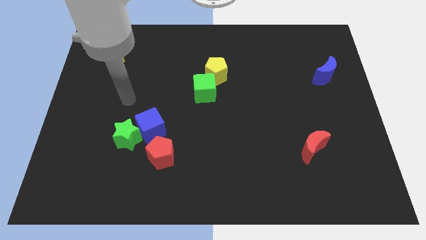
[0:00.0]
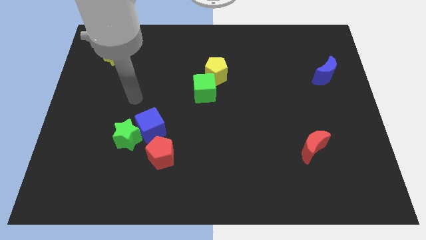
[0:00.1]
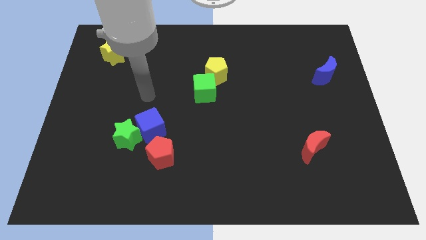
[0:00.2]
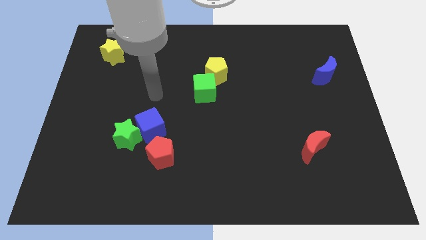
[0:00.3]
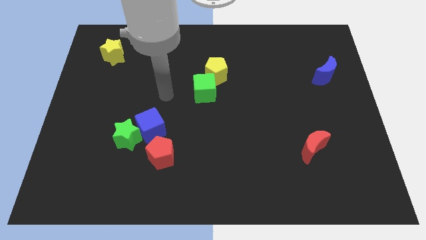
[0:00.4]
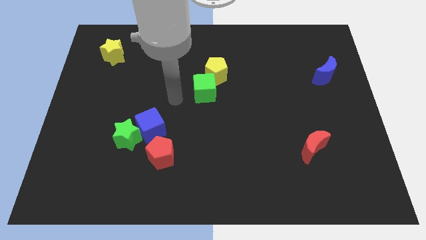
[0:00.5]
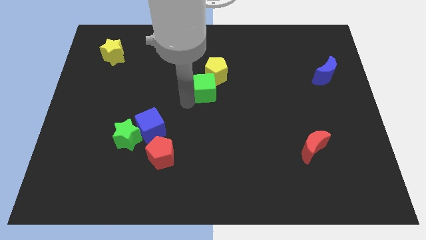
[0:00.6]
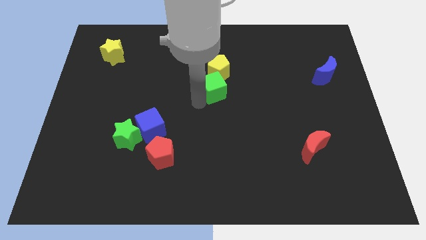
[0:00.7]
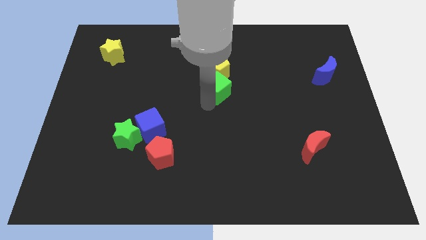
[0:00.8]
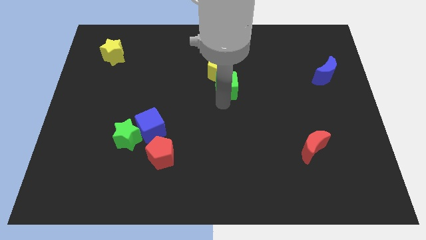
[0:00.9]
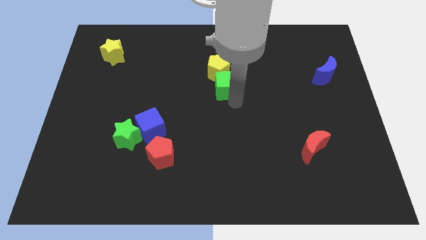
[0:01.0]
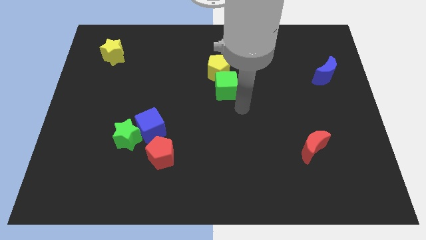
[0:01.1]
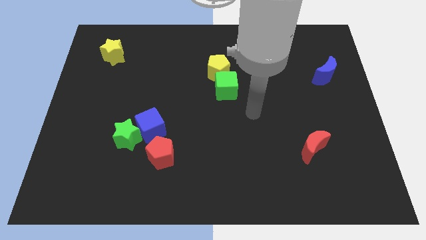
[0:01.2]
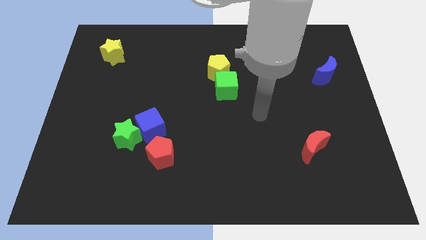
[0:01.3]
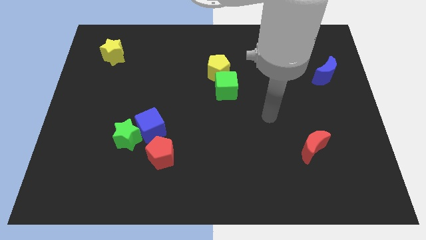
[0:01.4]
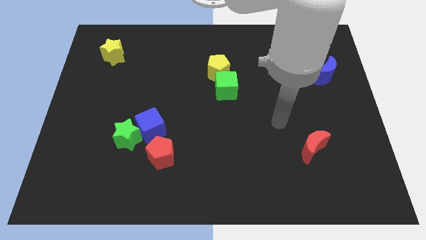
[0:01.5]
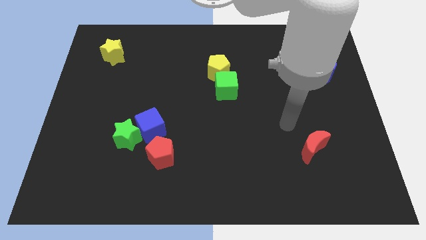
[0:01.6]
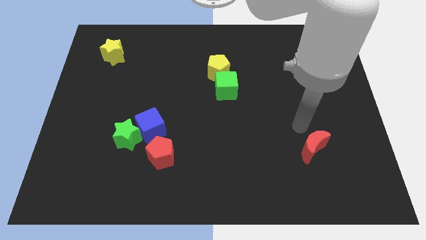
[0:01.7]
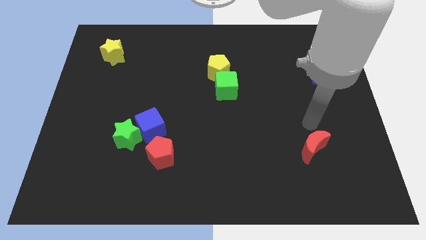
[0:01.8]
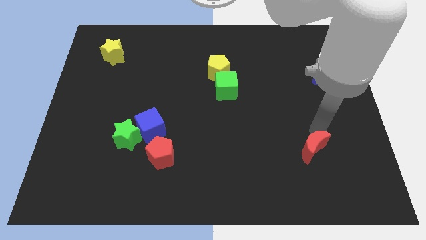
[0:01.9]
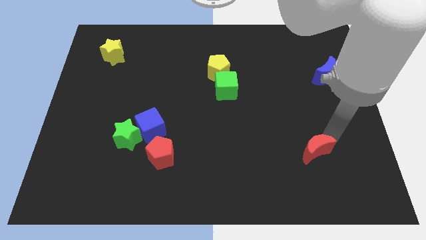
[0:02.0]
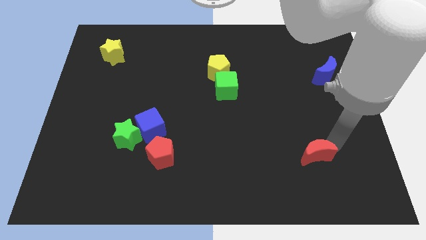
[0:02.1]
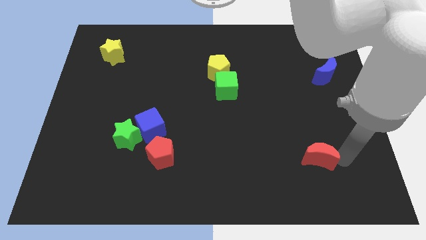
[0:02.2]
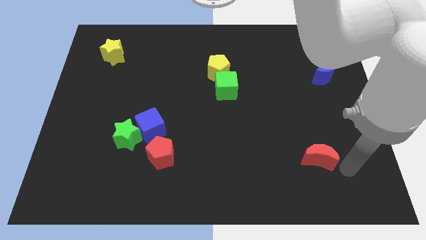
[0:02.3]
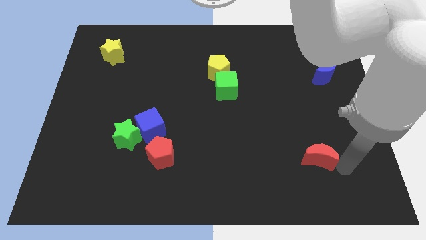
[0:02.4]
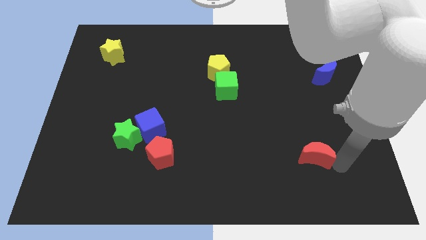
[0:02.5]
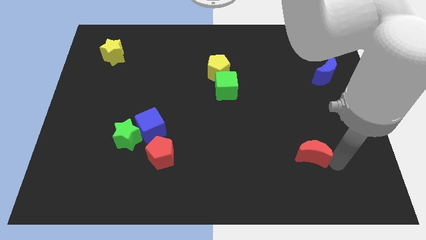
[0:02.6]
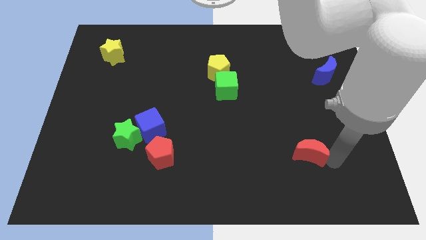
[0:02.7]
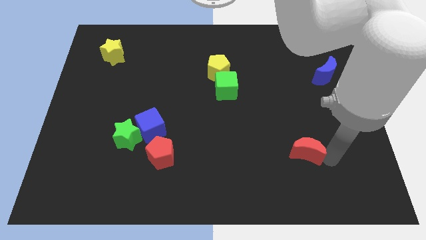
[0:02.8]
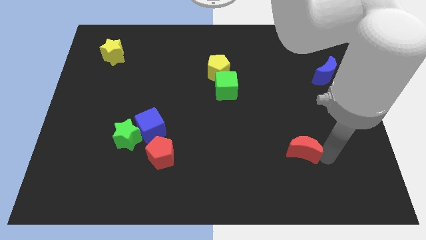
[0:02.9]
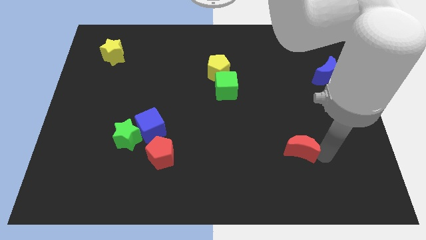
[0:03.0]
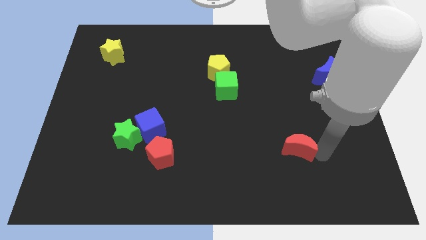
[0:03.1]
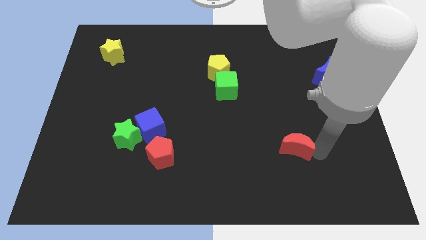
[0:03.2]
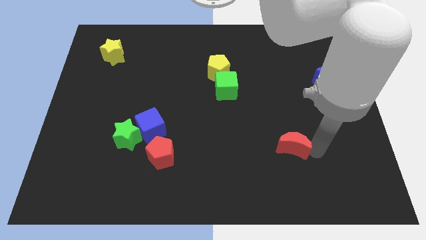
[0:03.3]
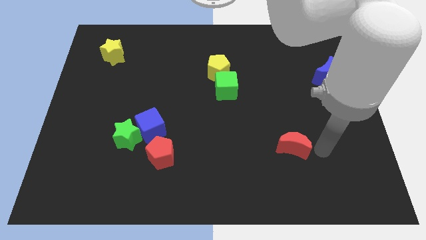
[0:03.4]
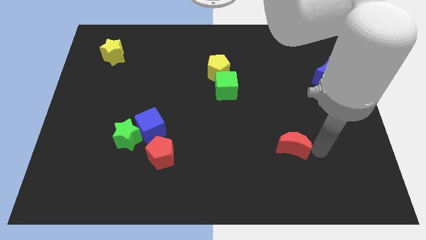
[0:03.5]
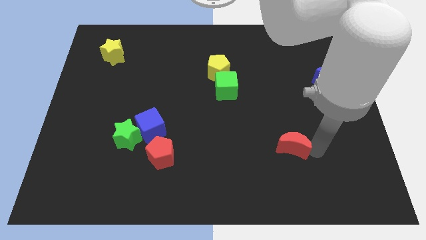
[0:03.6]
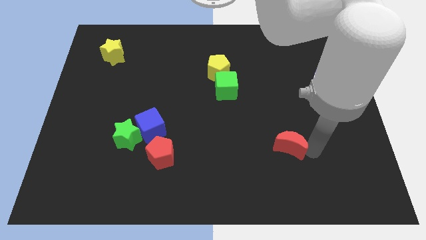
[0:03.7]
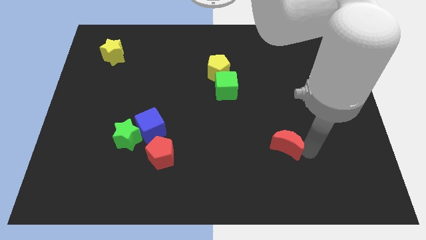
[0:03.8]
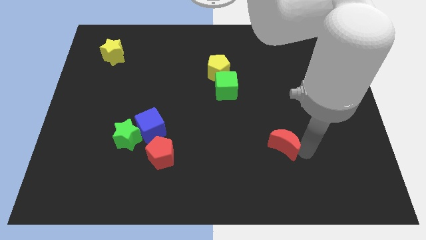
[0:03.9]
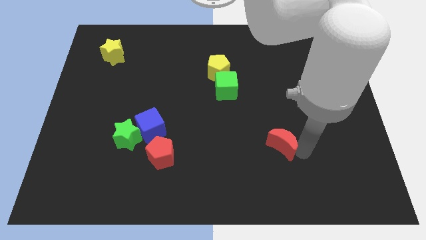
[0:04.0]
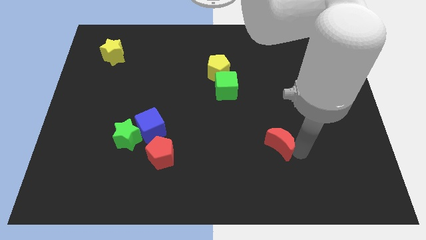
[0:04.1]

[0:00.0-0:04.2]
move the red moon a bit to the left

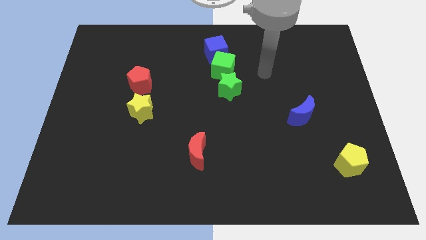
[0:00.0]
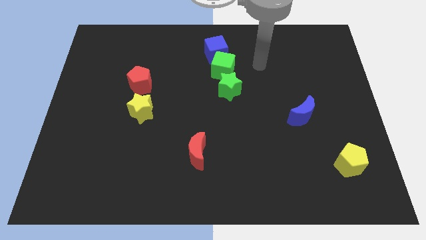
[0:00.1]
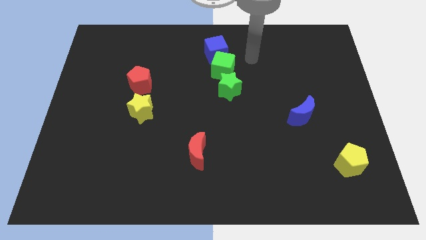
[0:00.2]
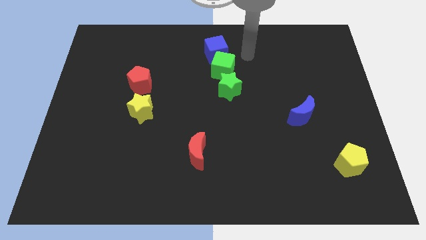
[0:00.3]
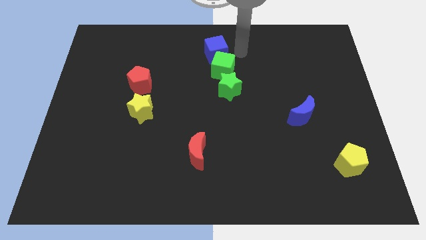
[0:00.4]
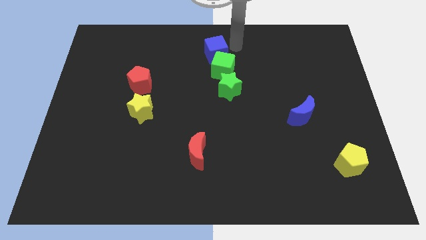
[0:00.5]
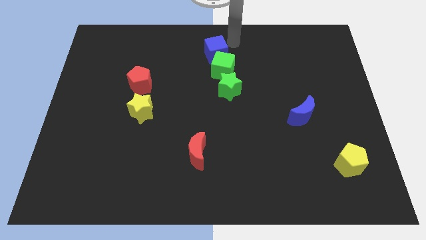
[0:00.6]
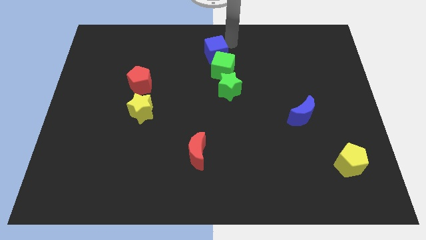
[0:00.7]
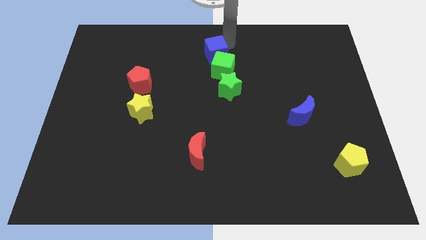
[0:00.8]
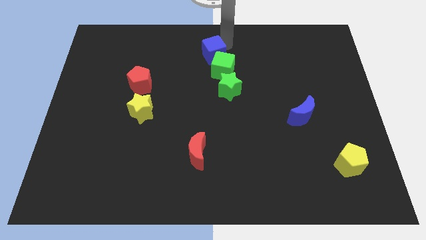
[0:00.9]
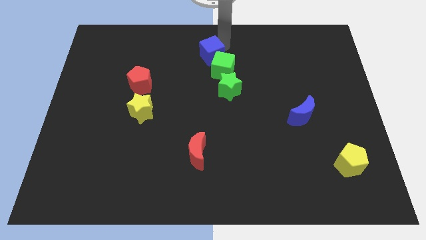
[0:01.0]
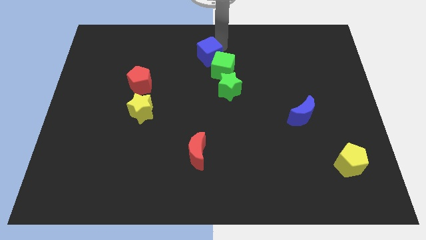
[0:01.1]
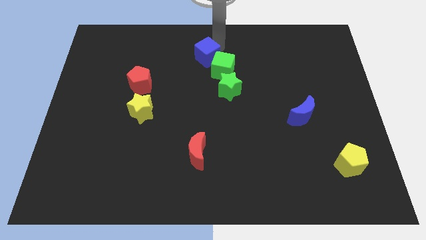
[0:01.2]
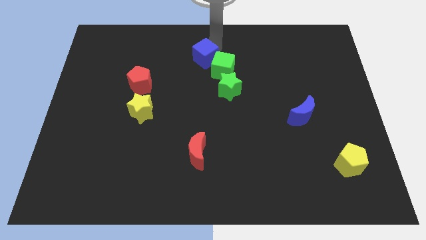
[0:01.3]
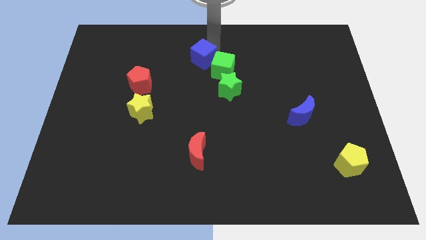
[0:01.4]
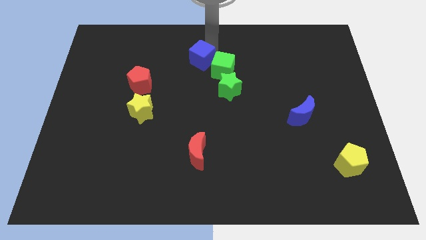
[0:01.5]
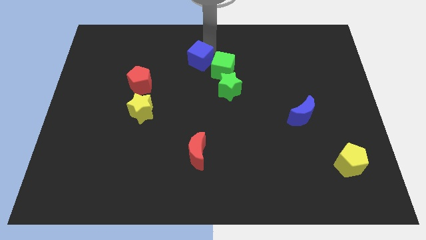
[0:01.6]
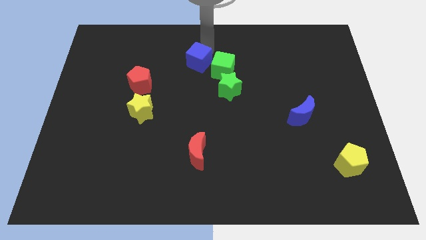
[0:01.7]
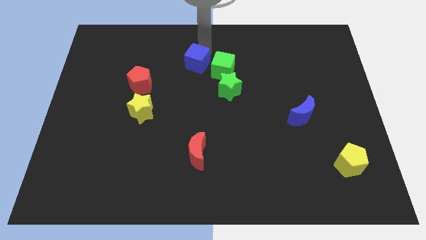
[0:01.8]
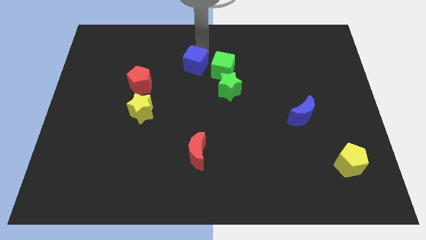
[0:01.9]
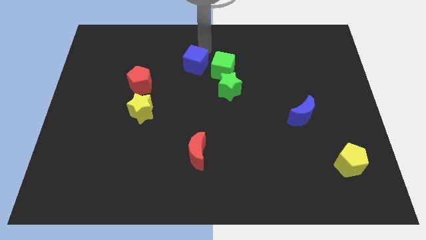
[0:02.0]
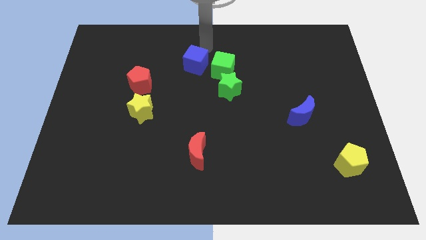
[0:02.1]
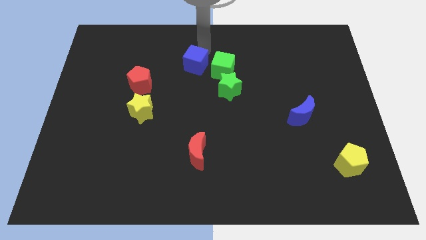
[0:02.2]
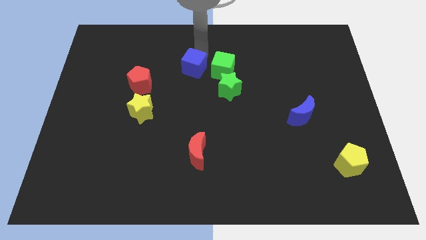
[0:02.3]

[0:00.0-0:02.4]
push the blue cube down and then to the left somewhat

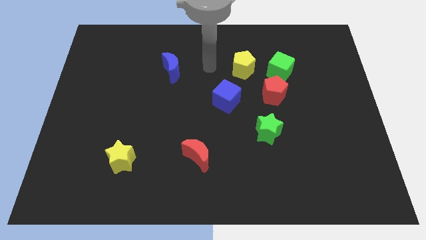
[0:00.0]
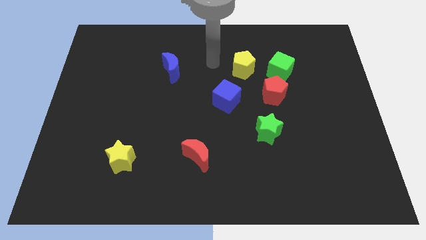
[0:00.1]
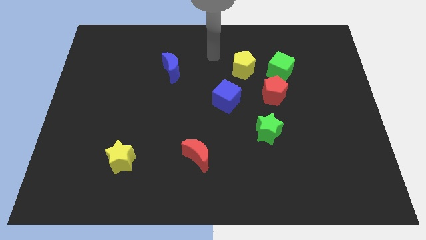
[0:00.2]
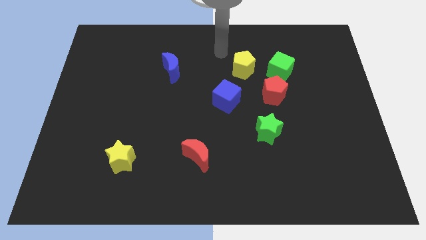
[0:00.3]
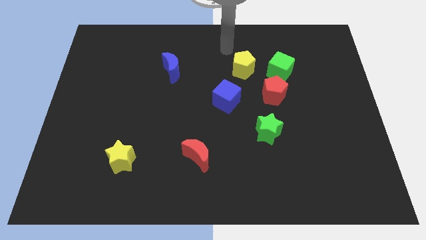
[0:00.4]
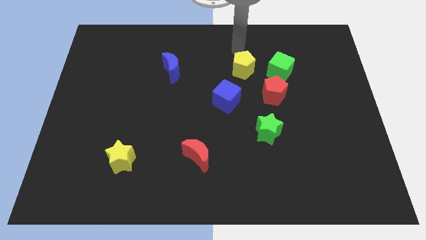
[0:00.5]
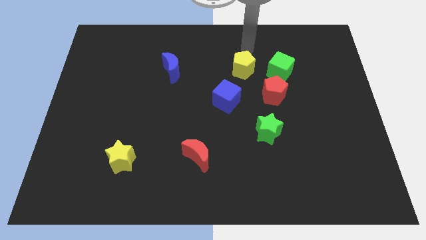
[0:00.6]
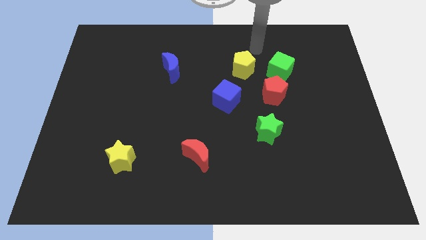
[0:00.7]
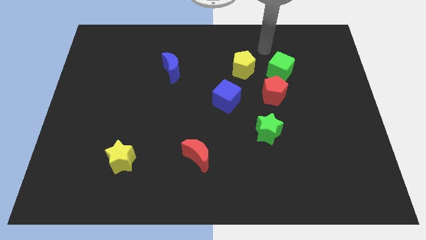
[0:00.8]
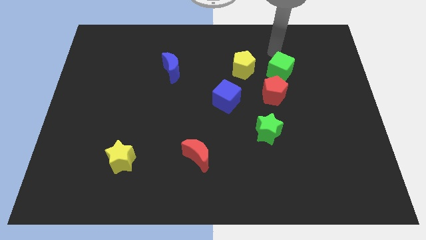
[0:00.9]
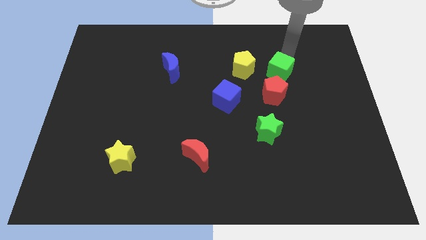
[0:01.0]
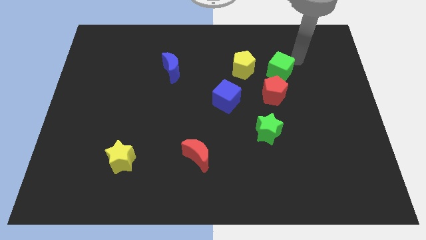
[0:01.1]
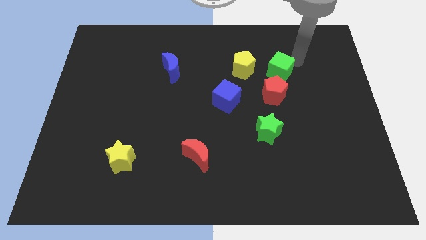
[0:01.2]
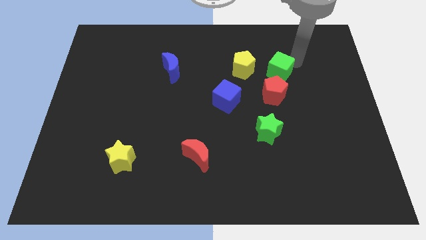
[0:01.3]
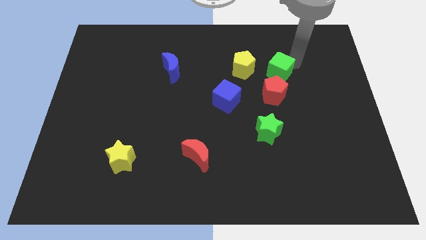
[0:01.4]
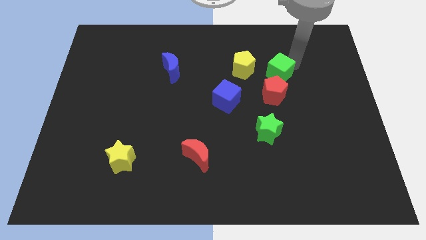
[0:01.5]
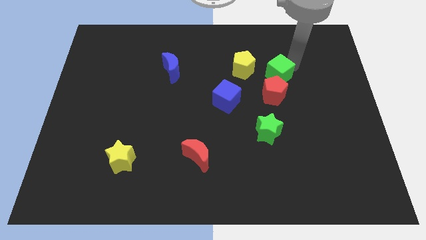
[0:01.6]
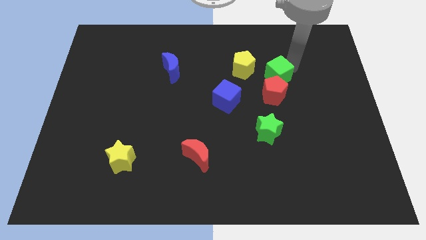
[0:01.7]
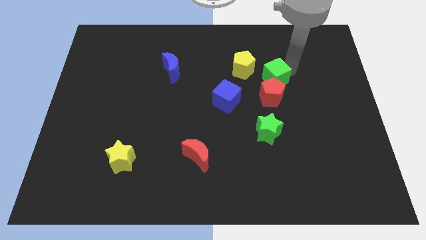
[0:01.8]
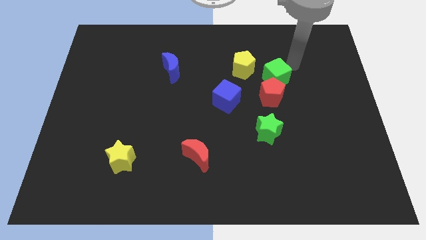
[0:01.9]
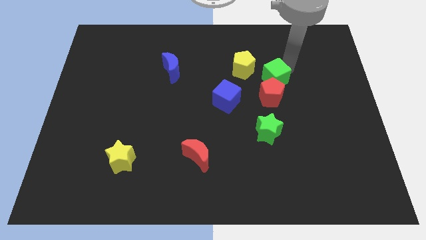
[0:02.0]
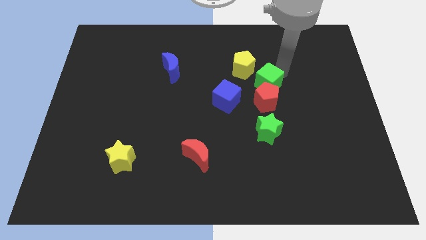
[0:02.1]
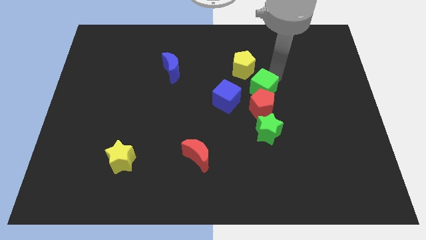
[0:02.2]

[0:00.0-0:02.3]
move the green cube a little diagonally down and left
